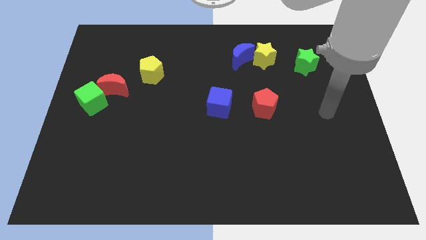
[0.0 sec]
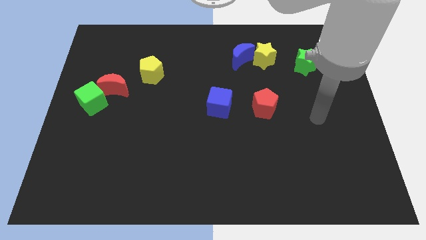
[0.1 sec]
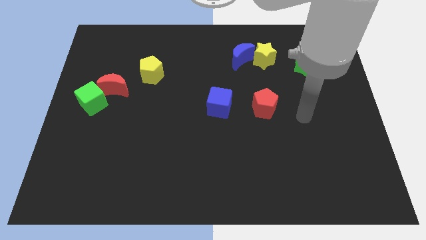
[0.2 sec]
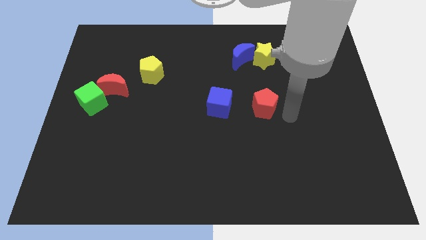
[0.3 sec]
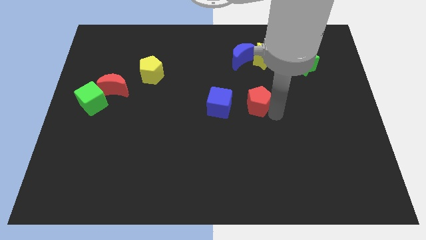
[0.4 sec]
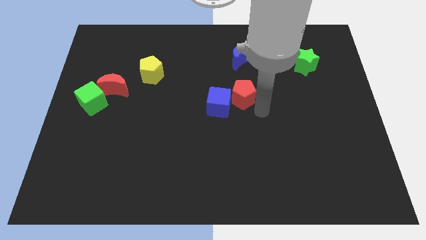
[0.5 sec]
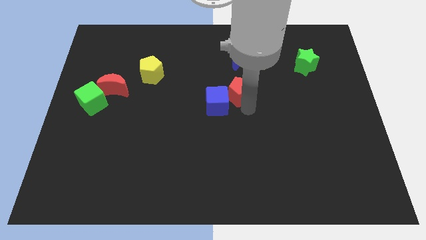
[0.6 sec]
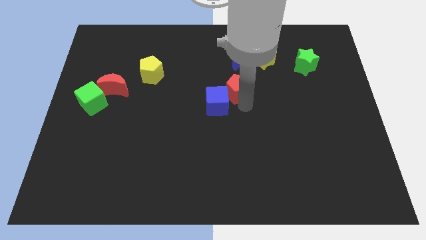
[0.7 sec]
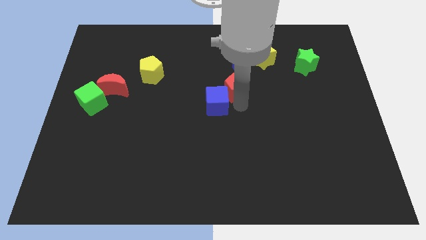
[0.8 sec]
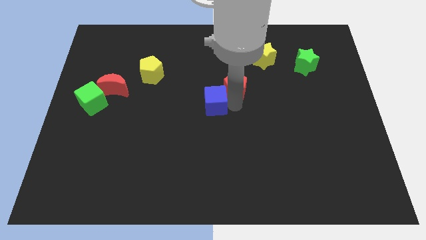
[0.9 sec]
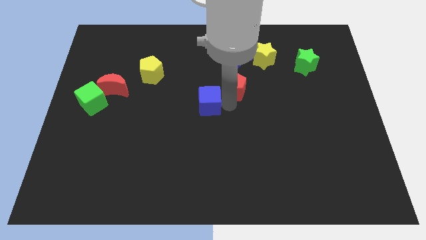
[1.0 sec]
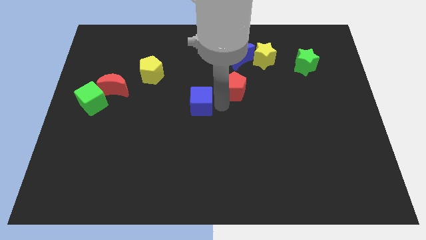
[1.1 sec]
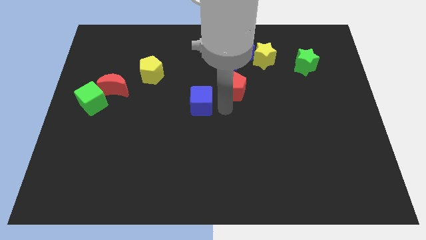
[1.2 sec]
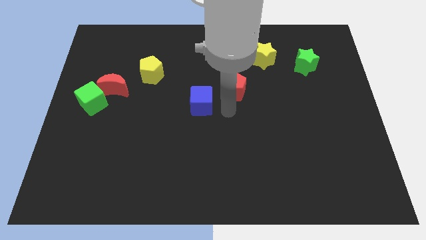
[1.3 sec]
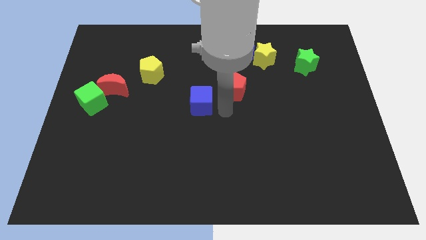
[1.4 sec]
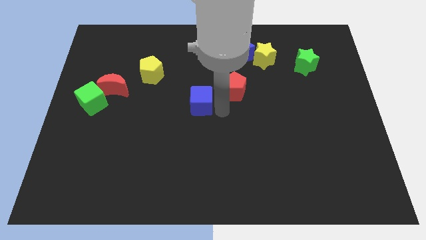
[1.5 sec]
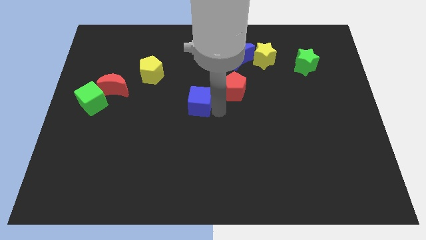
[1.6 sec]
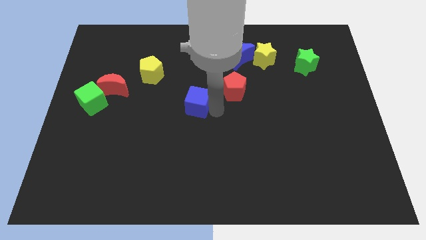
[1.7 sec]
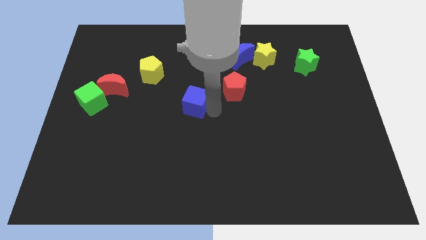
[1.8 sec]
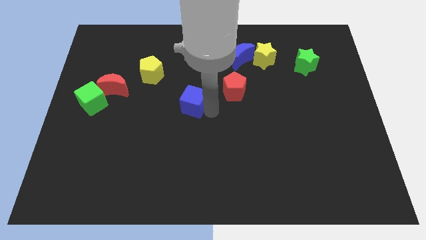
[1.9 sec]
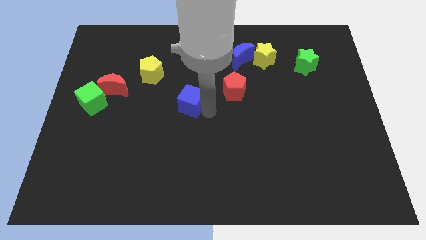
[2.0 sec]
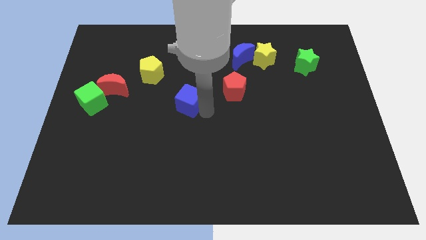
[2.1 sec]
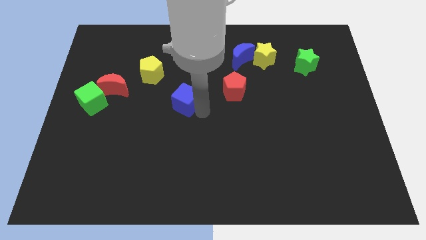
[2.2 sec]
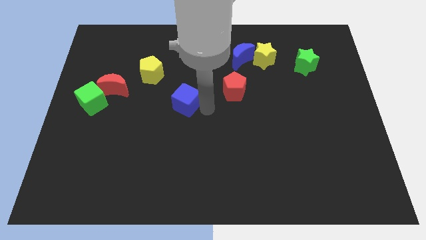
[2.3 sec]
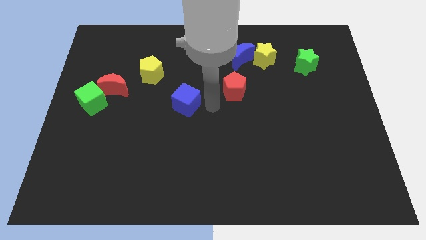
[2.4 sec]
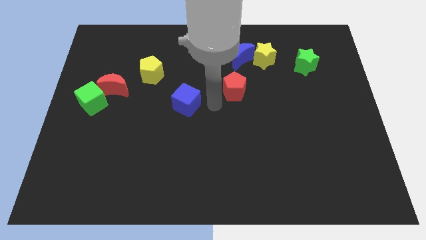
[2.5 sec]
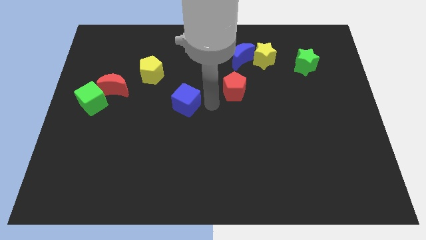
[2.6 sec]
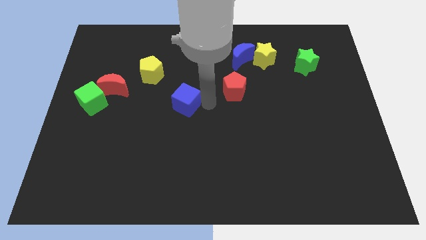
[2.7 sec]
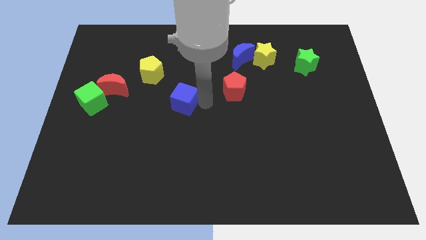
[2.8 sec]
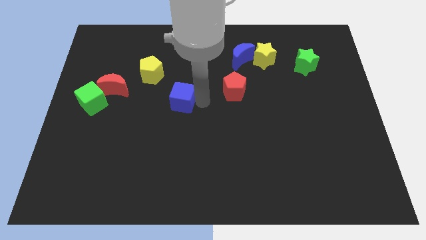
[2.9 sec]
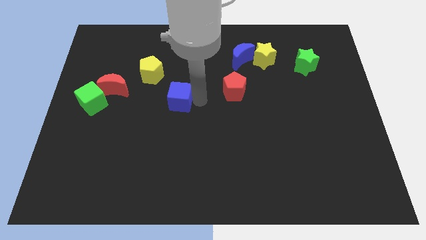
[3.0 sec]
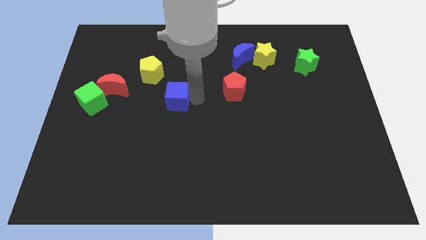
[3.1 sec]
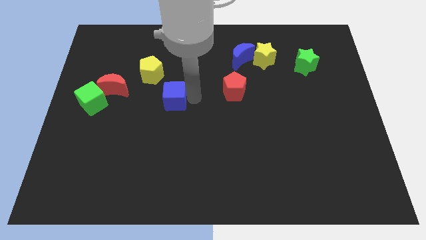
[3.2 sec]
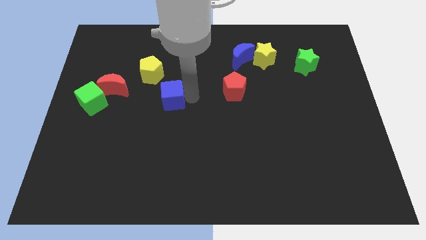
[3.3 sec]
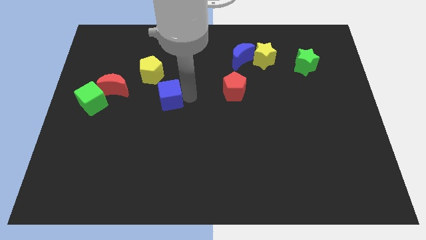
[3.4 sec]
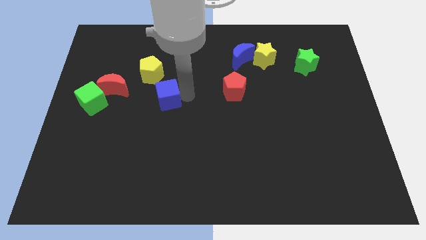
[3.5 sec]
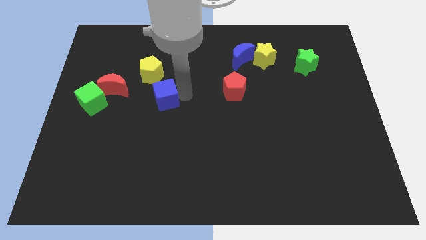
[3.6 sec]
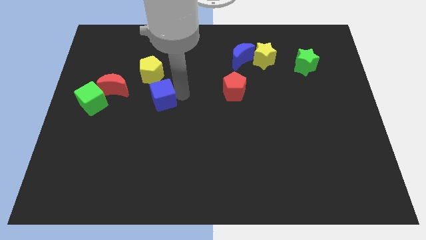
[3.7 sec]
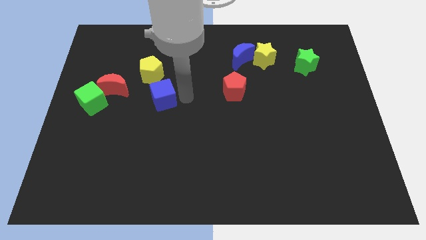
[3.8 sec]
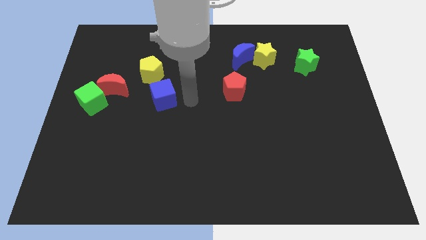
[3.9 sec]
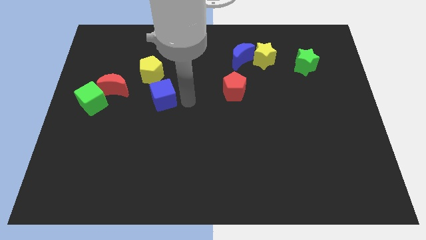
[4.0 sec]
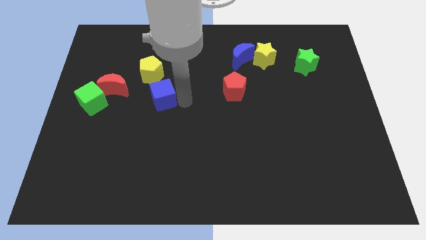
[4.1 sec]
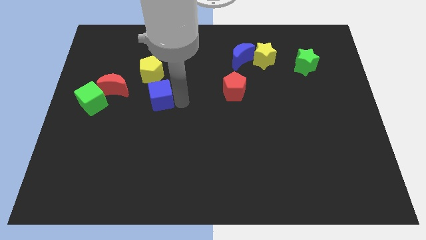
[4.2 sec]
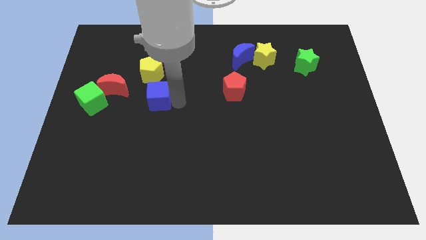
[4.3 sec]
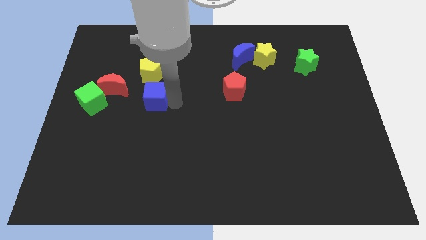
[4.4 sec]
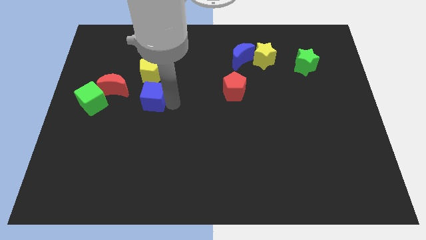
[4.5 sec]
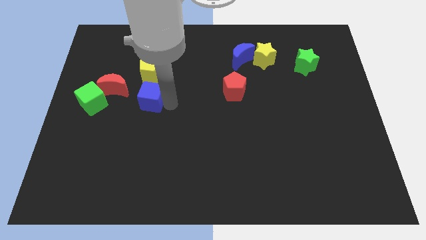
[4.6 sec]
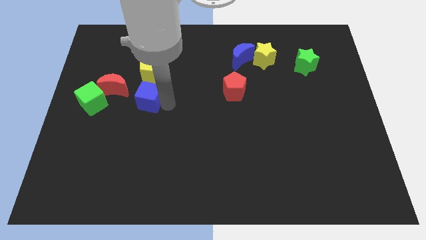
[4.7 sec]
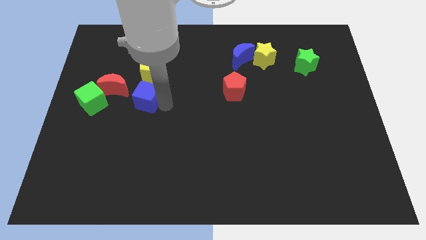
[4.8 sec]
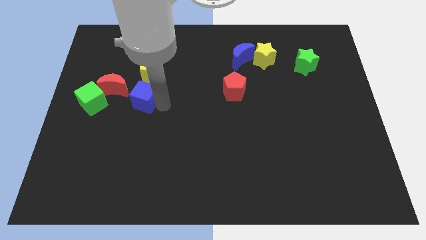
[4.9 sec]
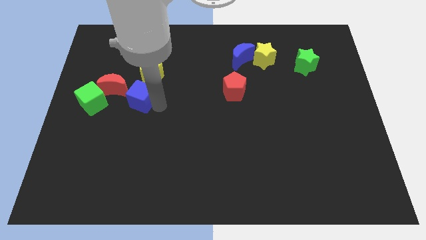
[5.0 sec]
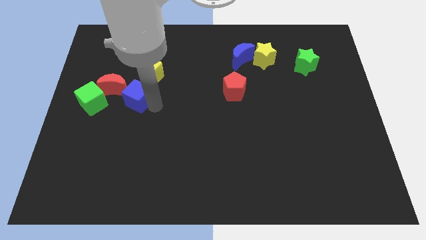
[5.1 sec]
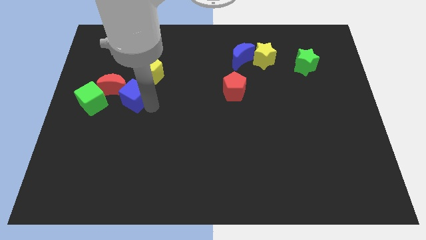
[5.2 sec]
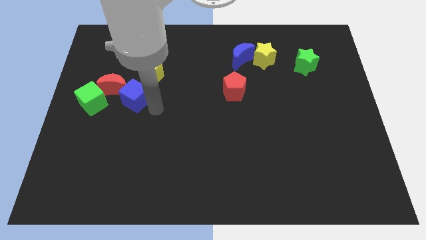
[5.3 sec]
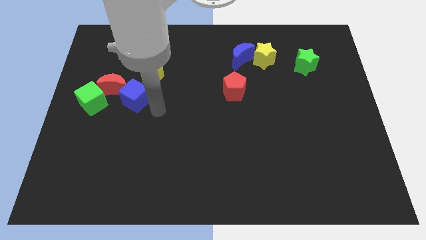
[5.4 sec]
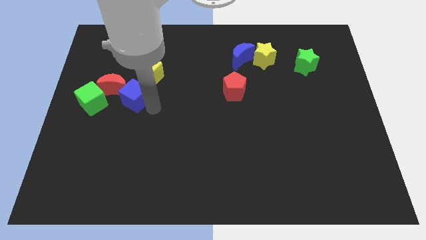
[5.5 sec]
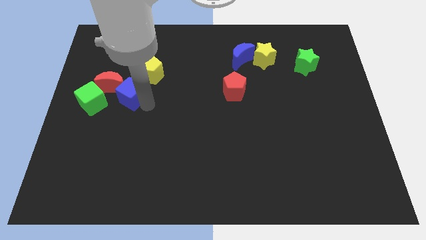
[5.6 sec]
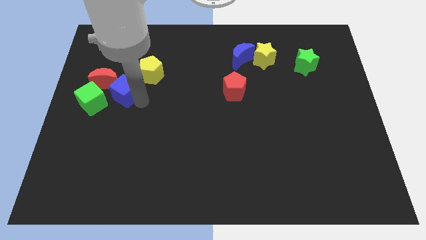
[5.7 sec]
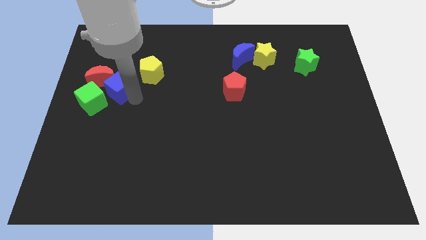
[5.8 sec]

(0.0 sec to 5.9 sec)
slide the blue cube to the red moon

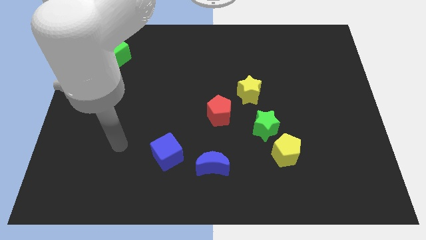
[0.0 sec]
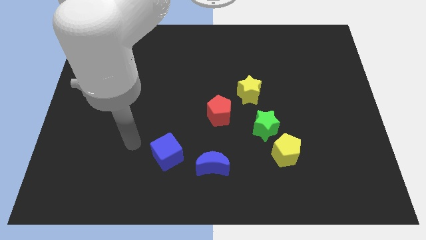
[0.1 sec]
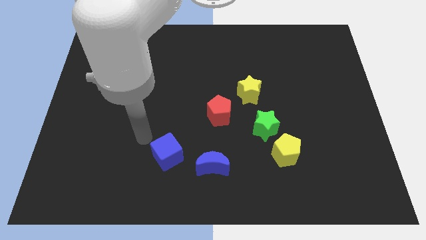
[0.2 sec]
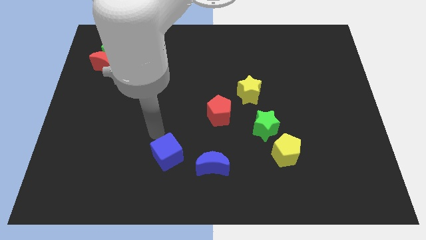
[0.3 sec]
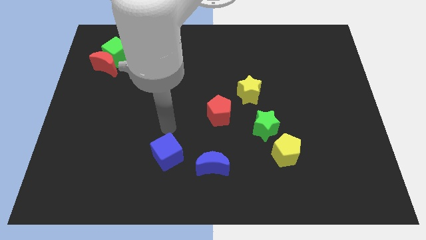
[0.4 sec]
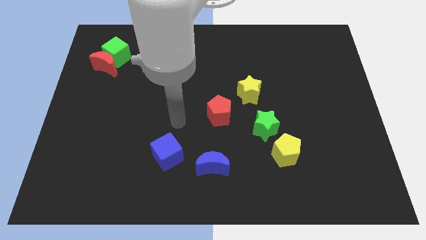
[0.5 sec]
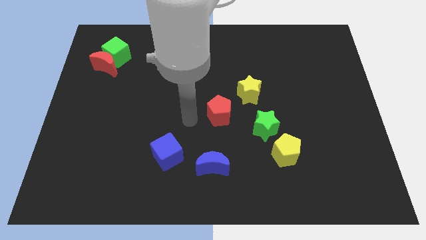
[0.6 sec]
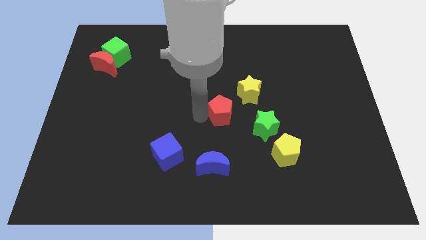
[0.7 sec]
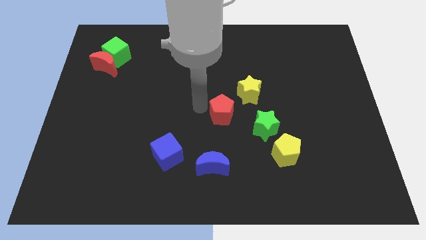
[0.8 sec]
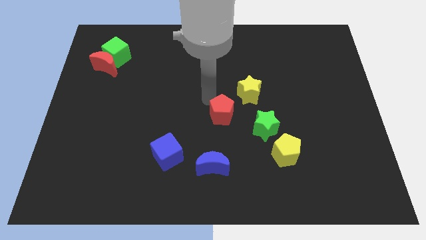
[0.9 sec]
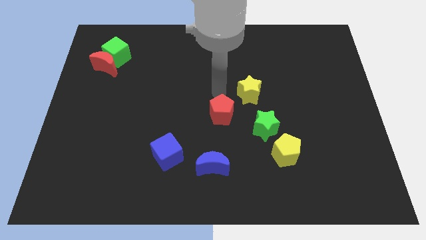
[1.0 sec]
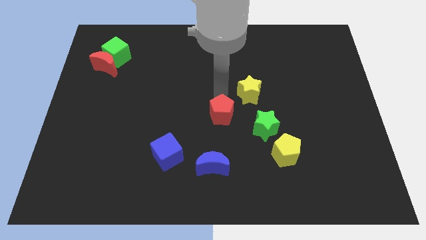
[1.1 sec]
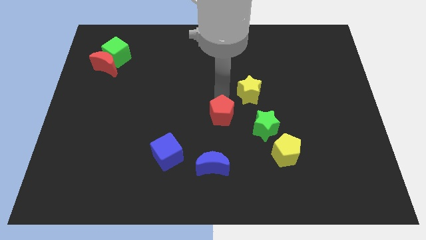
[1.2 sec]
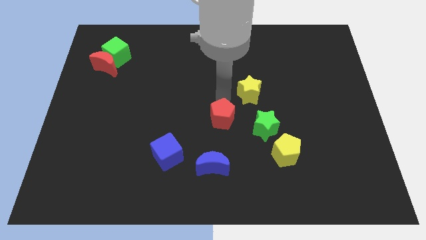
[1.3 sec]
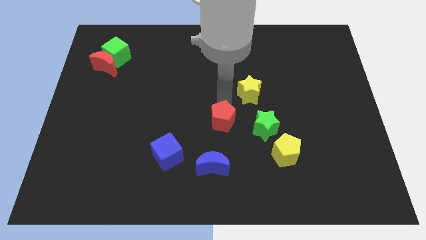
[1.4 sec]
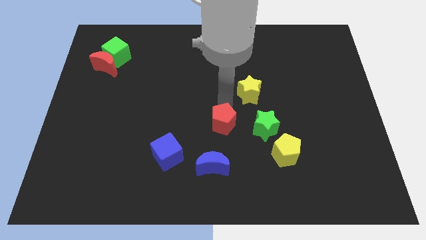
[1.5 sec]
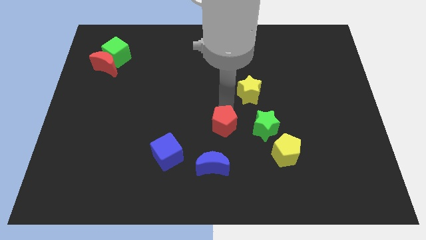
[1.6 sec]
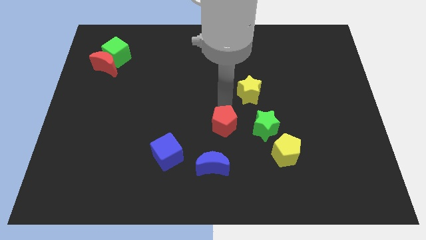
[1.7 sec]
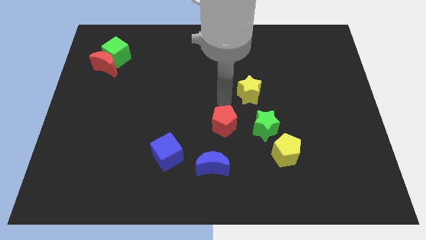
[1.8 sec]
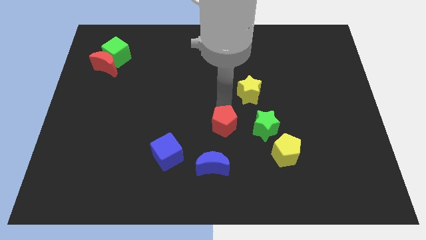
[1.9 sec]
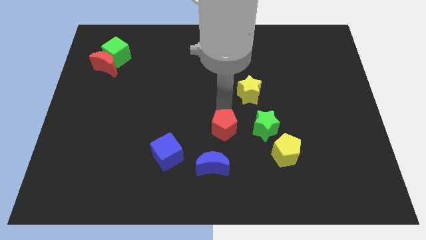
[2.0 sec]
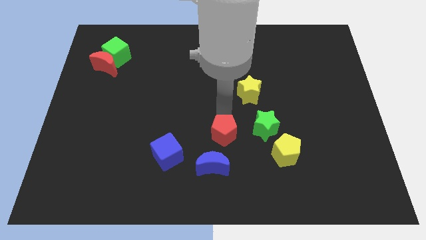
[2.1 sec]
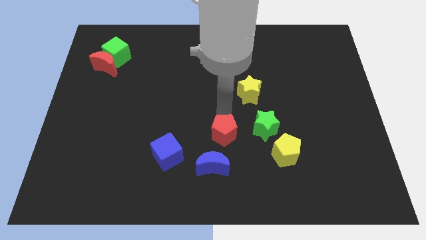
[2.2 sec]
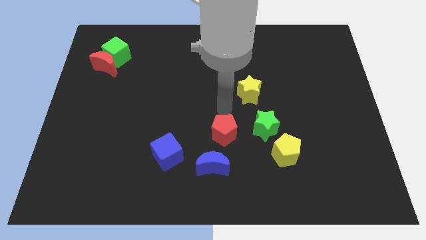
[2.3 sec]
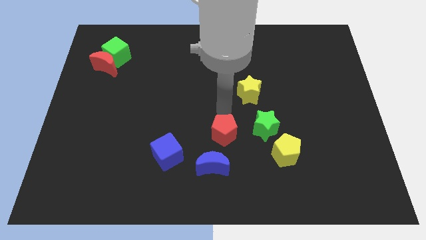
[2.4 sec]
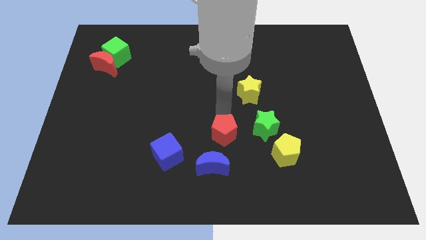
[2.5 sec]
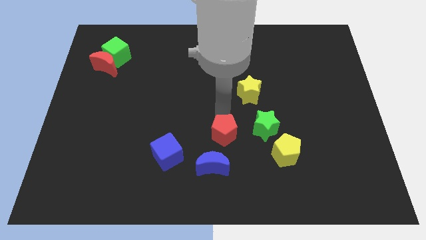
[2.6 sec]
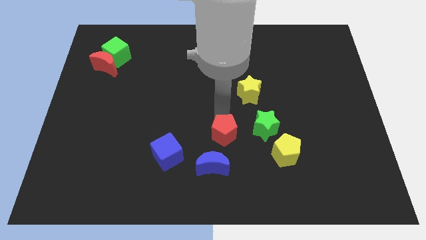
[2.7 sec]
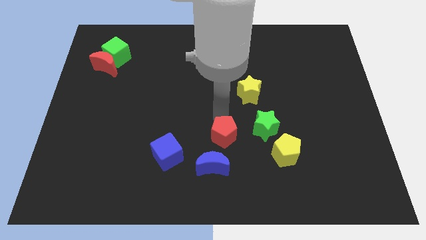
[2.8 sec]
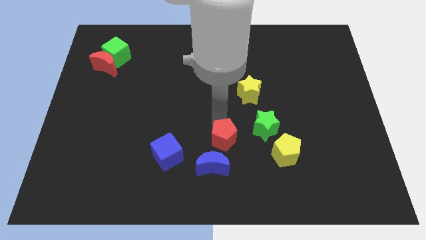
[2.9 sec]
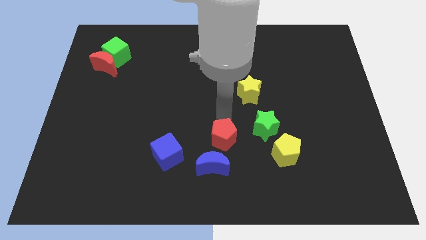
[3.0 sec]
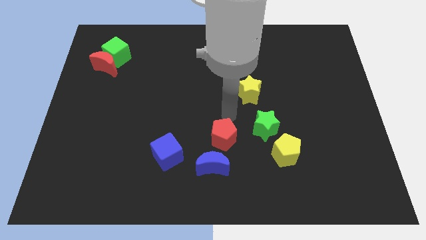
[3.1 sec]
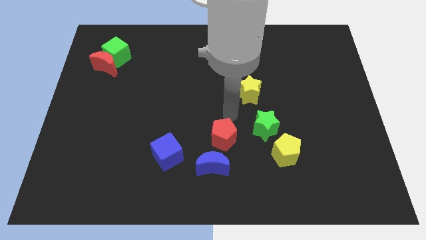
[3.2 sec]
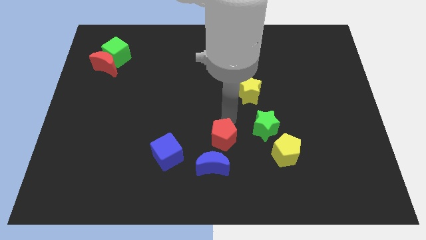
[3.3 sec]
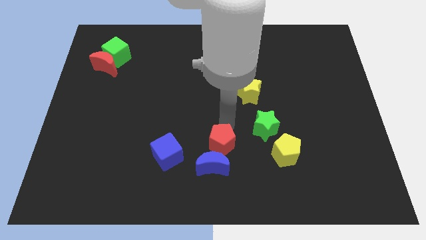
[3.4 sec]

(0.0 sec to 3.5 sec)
push the red pentagon close to the blue moon
